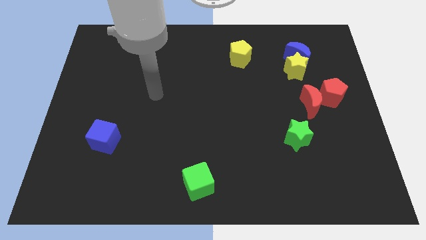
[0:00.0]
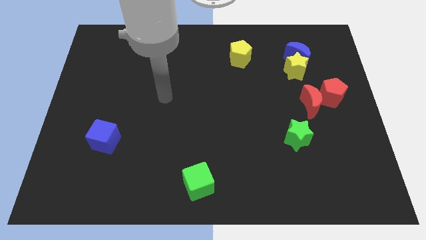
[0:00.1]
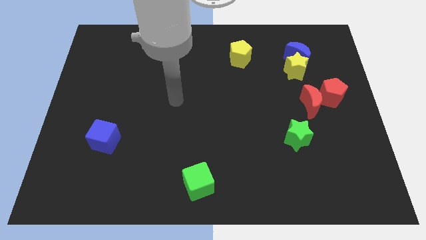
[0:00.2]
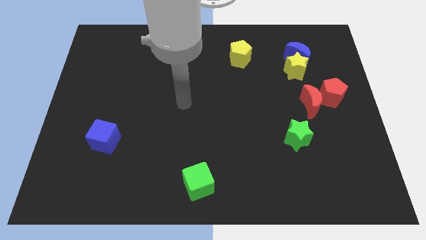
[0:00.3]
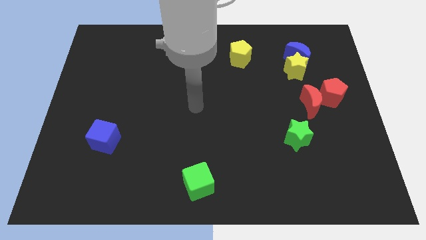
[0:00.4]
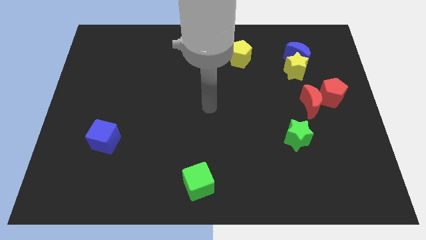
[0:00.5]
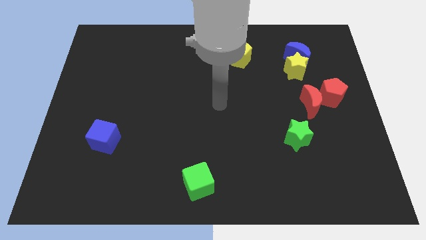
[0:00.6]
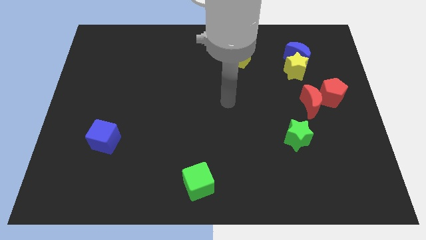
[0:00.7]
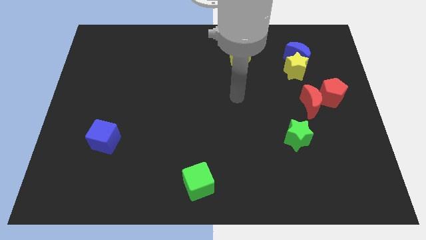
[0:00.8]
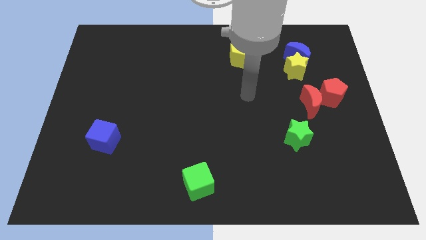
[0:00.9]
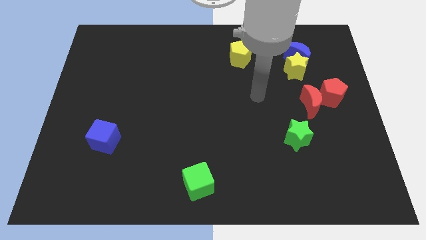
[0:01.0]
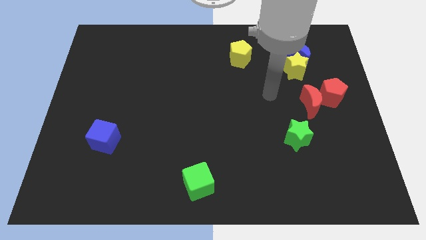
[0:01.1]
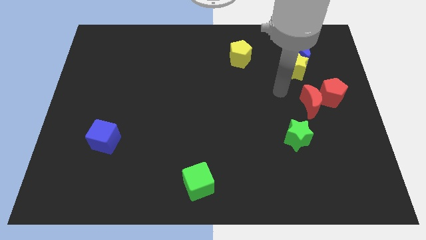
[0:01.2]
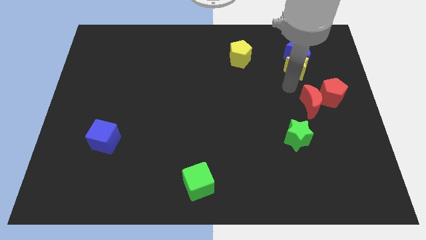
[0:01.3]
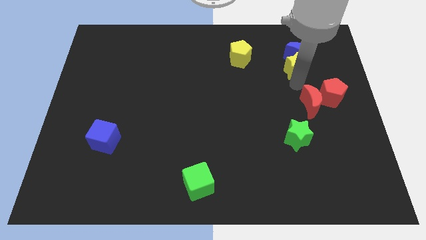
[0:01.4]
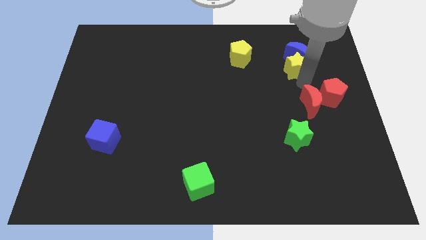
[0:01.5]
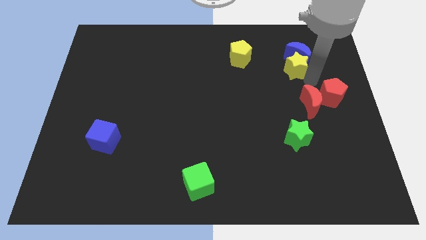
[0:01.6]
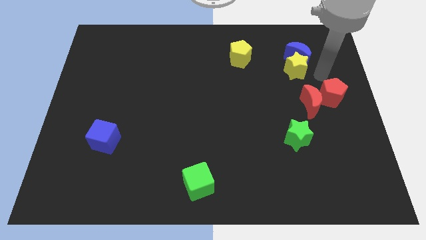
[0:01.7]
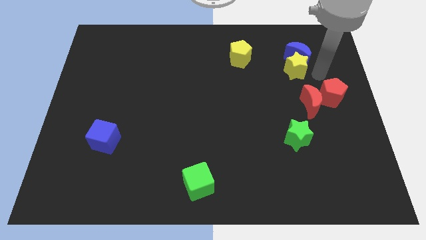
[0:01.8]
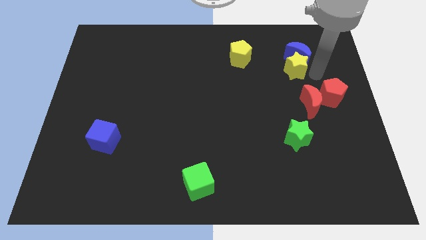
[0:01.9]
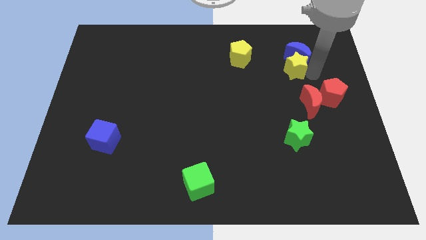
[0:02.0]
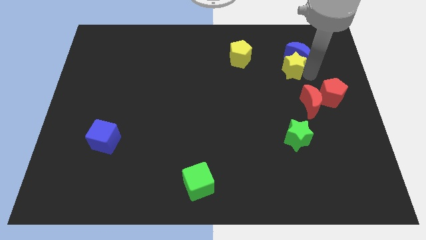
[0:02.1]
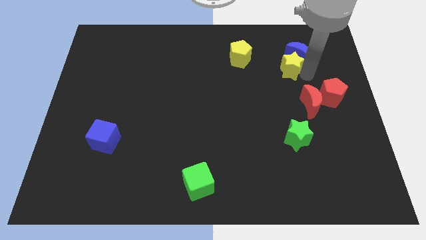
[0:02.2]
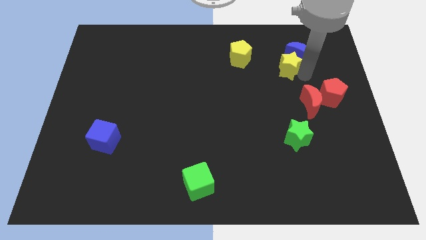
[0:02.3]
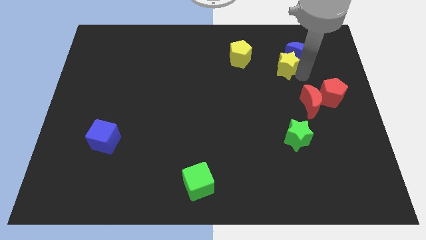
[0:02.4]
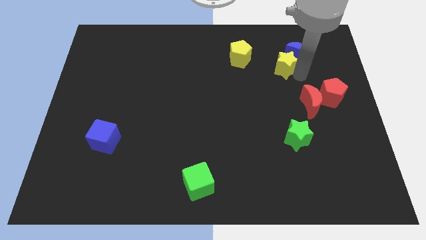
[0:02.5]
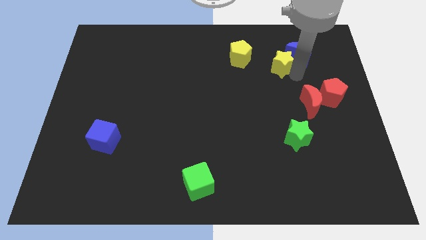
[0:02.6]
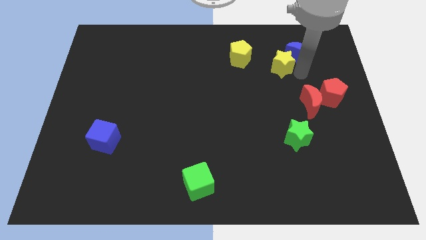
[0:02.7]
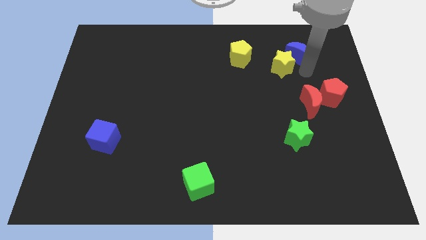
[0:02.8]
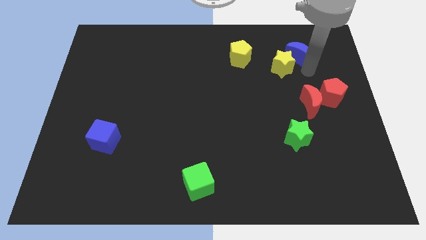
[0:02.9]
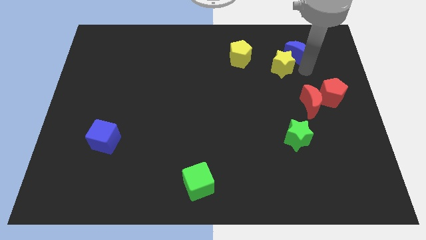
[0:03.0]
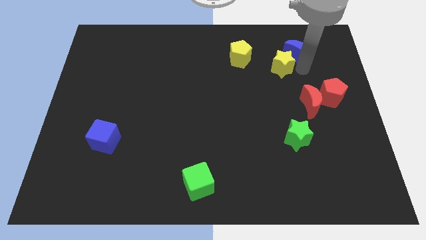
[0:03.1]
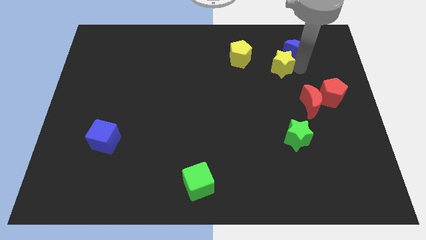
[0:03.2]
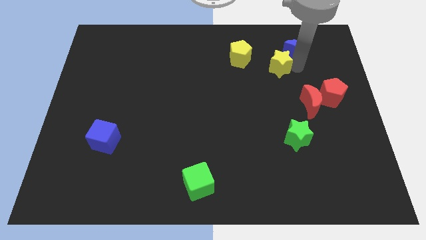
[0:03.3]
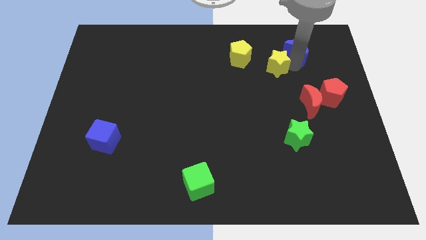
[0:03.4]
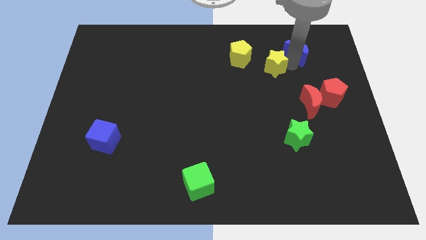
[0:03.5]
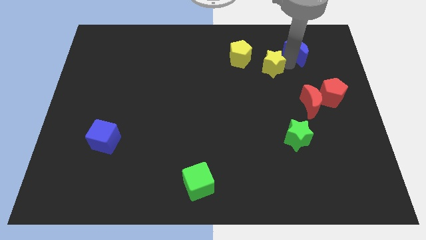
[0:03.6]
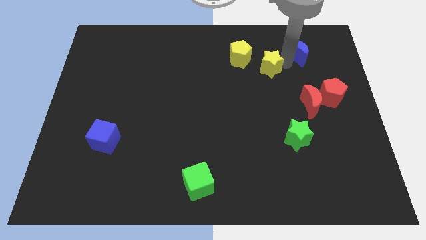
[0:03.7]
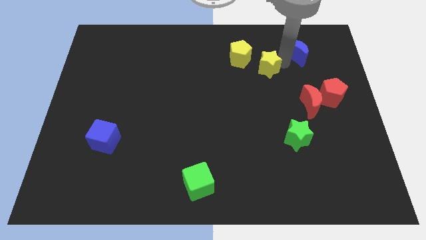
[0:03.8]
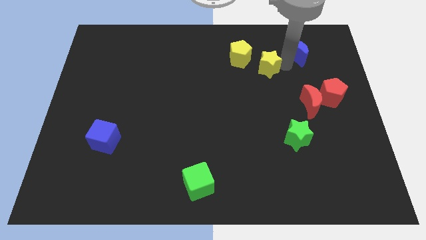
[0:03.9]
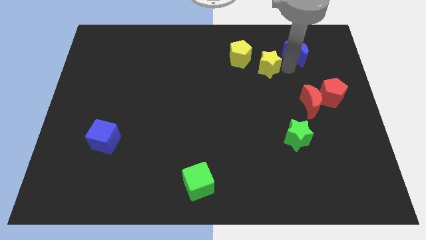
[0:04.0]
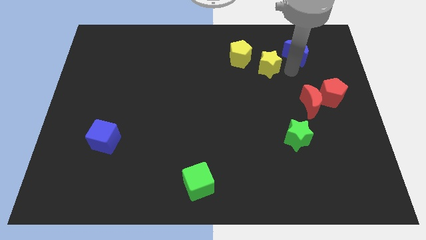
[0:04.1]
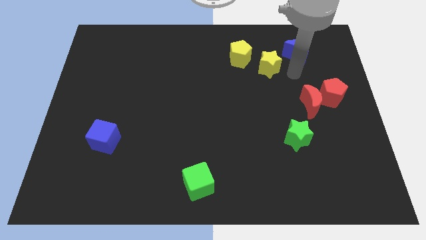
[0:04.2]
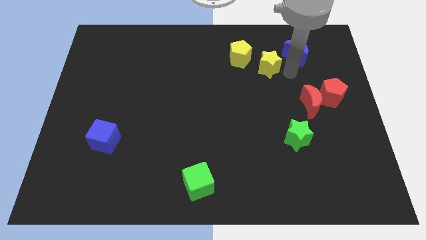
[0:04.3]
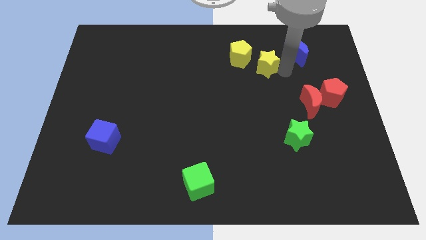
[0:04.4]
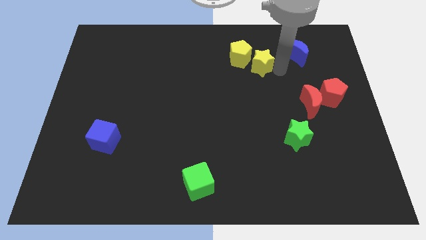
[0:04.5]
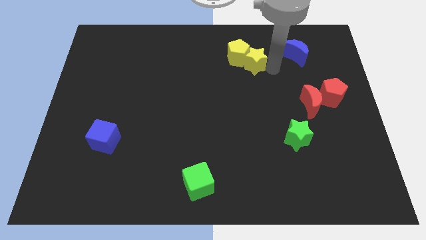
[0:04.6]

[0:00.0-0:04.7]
slide the yellow star to the yellow pentagon

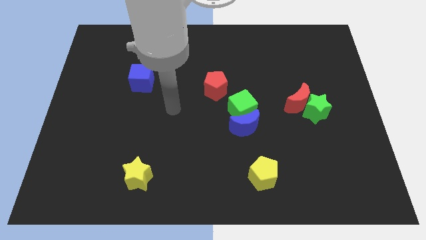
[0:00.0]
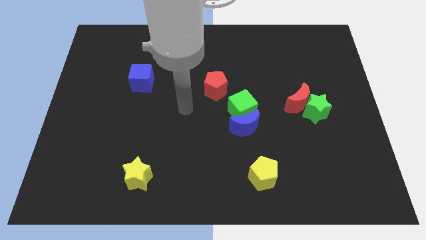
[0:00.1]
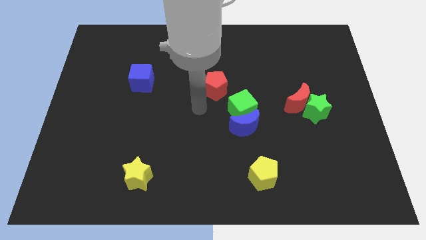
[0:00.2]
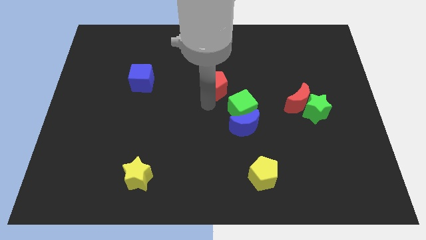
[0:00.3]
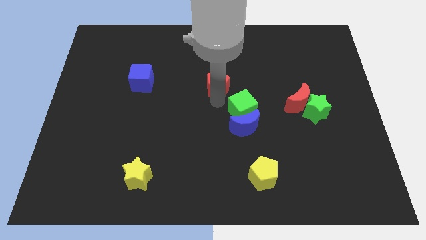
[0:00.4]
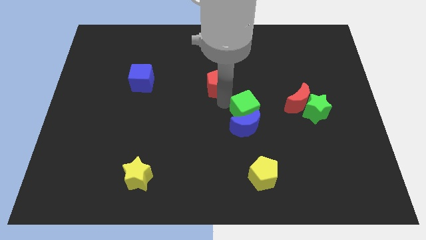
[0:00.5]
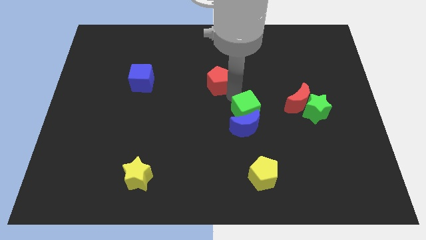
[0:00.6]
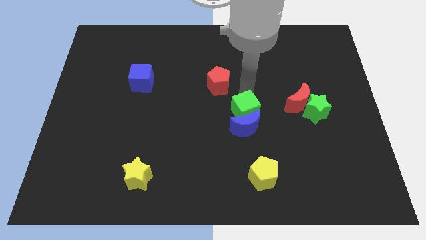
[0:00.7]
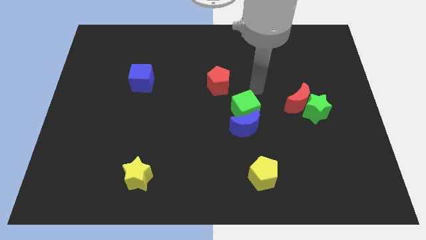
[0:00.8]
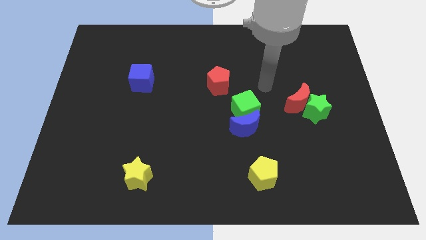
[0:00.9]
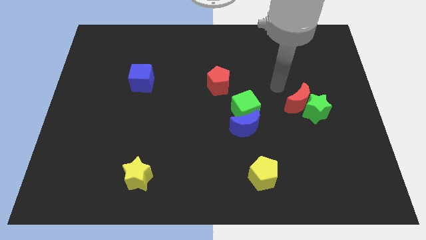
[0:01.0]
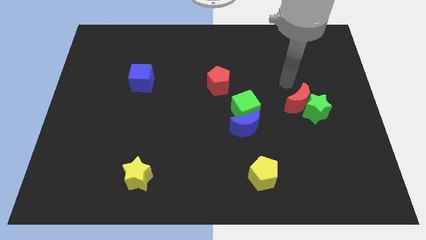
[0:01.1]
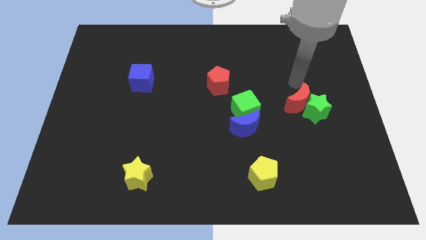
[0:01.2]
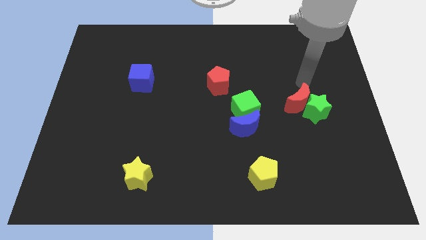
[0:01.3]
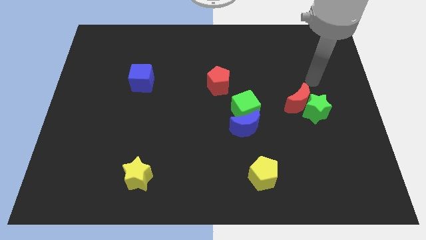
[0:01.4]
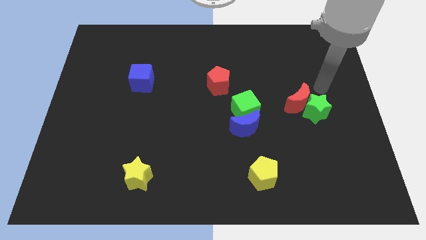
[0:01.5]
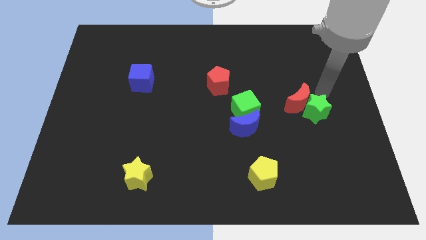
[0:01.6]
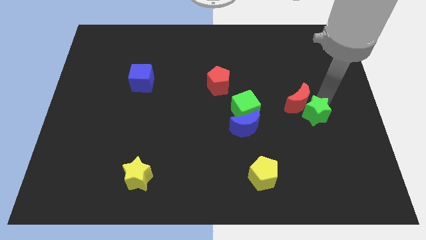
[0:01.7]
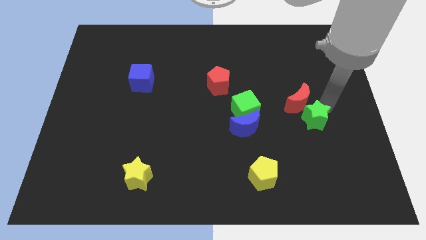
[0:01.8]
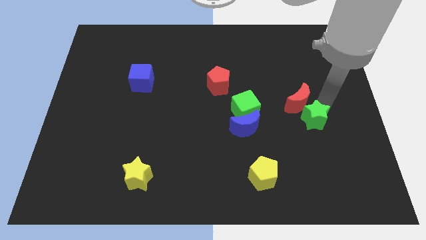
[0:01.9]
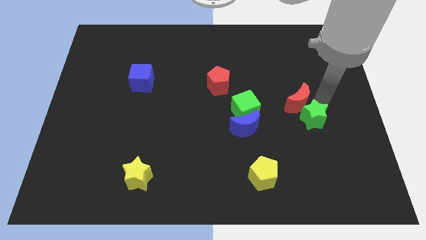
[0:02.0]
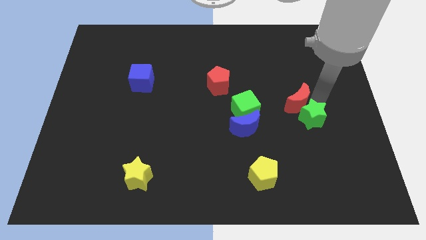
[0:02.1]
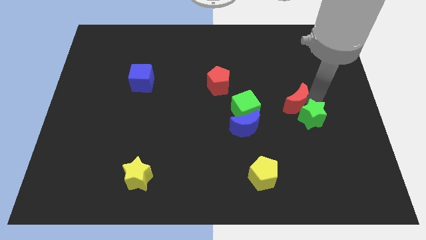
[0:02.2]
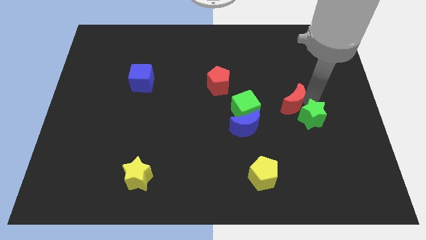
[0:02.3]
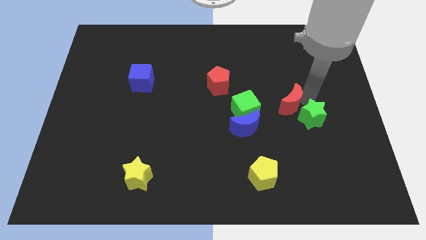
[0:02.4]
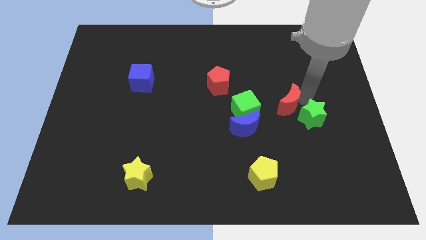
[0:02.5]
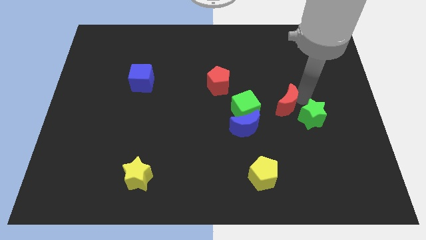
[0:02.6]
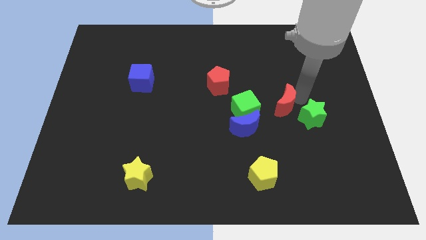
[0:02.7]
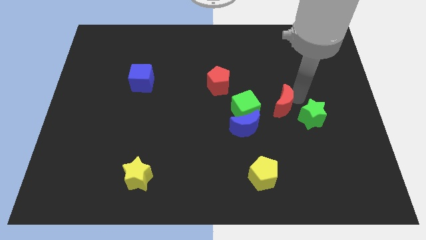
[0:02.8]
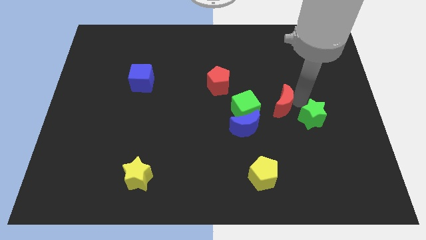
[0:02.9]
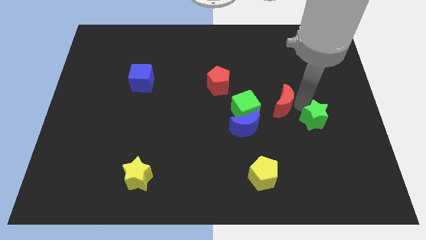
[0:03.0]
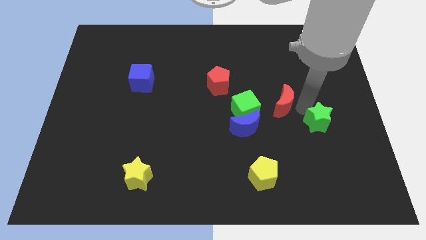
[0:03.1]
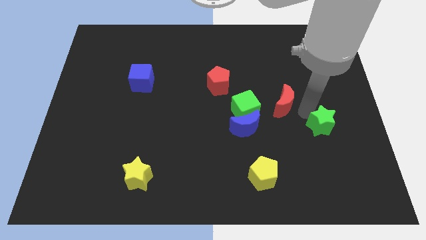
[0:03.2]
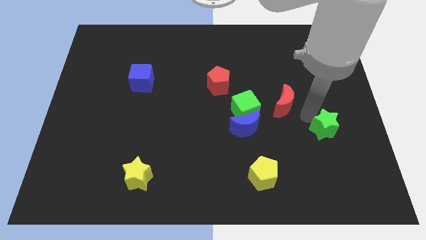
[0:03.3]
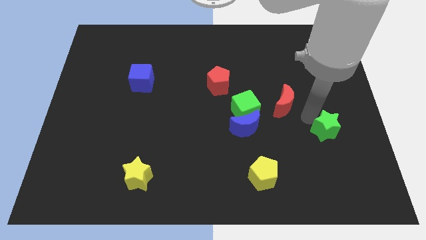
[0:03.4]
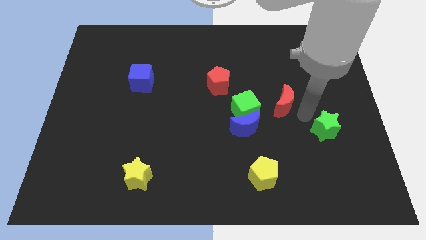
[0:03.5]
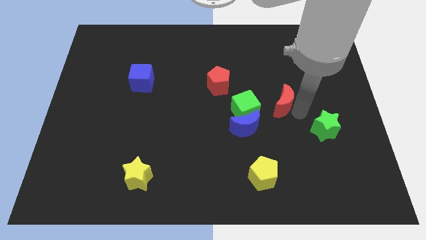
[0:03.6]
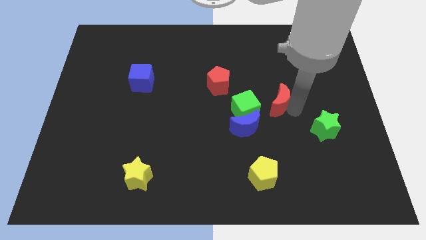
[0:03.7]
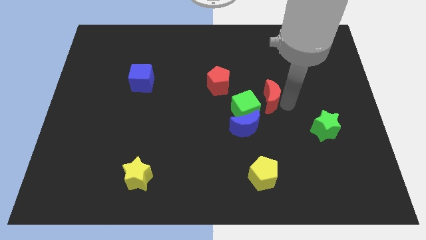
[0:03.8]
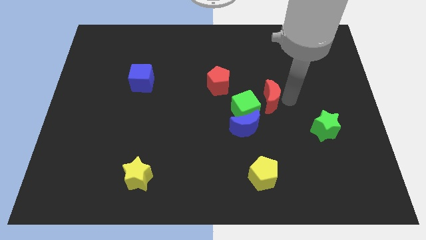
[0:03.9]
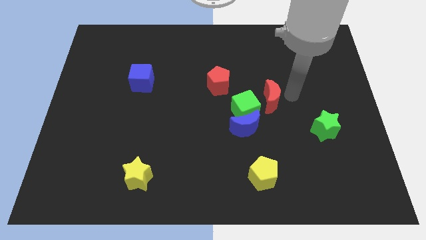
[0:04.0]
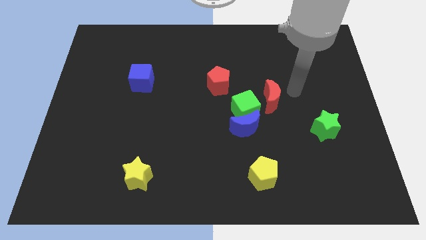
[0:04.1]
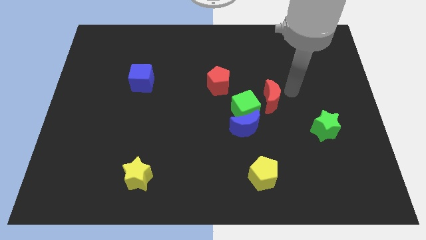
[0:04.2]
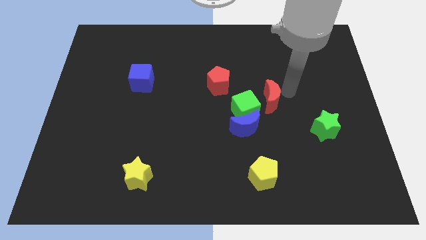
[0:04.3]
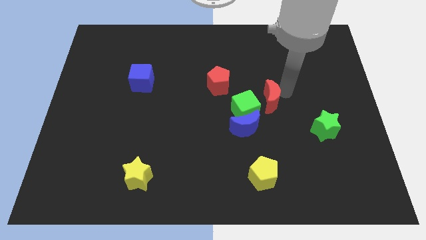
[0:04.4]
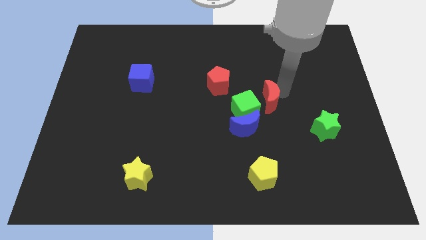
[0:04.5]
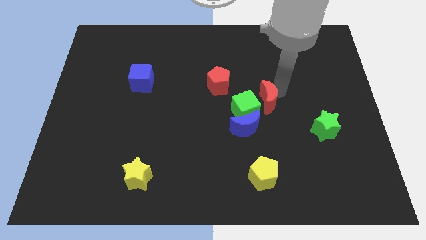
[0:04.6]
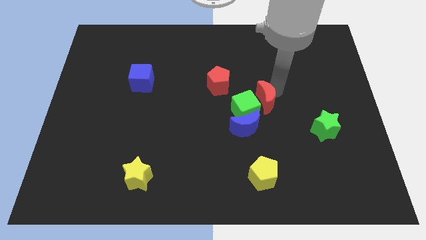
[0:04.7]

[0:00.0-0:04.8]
push the red moon close to the green cube
